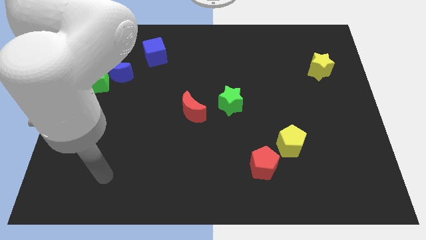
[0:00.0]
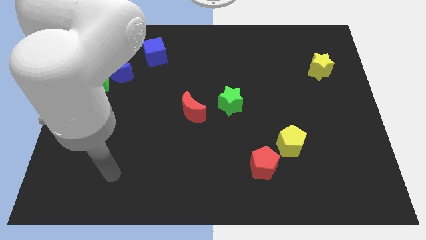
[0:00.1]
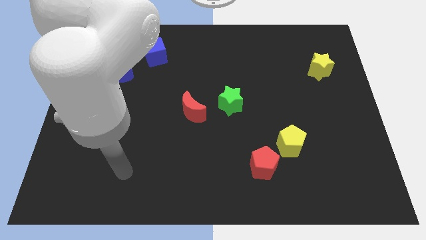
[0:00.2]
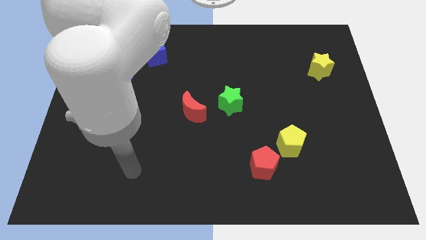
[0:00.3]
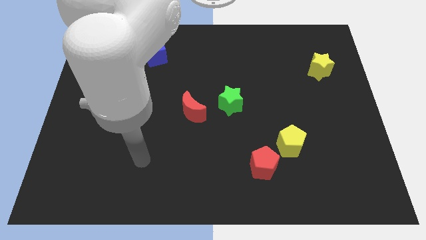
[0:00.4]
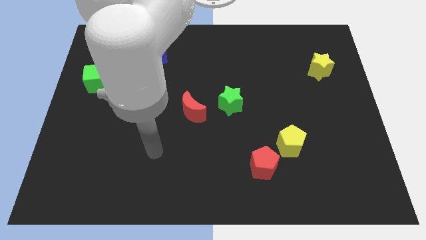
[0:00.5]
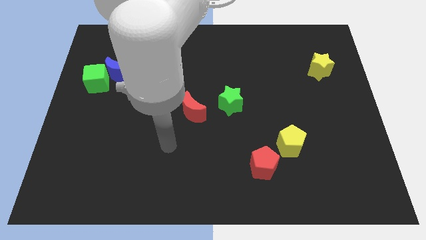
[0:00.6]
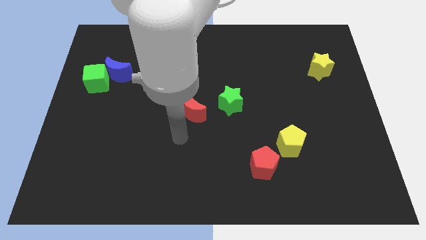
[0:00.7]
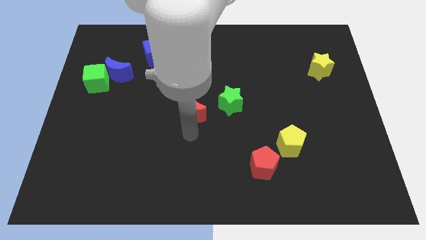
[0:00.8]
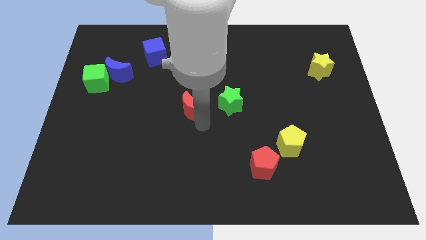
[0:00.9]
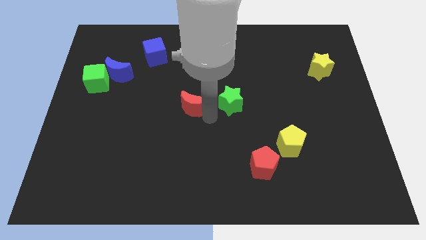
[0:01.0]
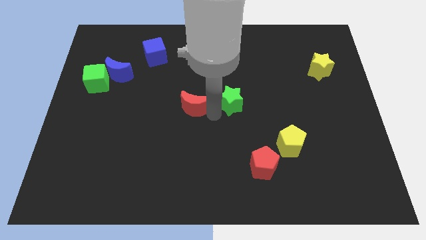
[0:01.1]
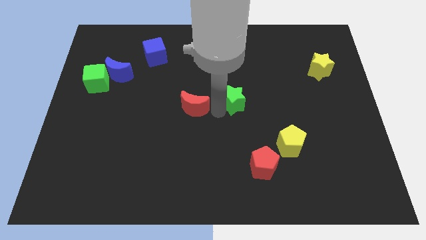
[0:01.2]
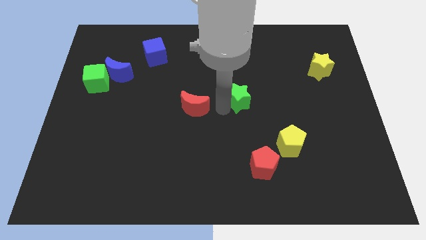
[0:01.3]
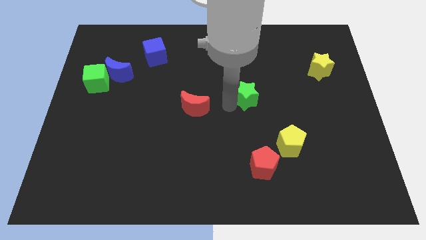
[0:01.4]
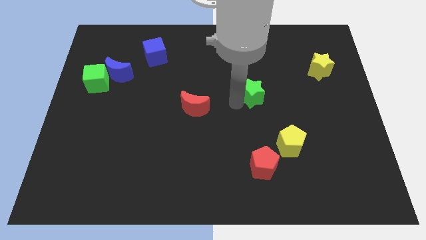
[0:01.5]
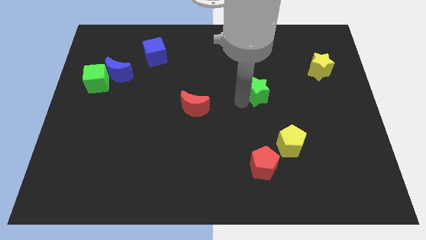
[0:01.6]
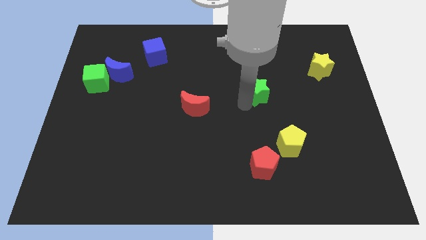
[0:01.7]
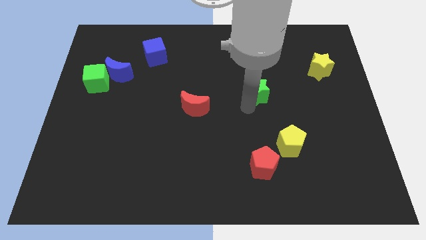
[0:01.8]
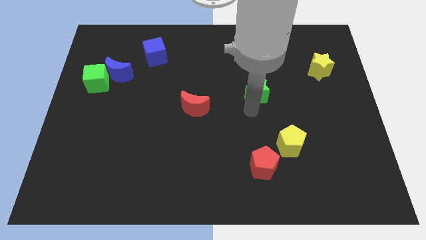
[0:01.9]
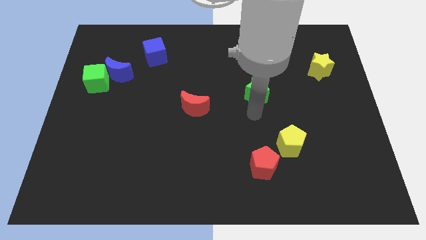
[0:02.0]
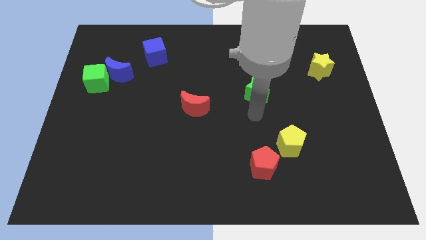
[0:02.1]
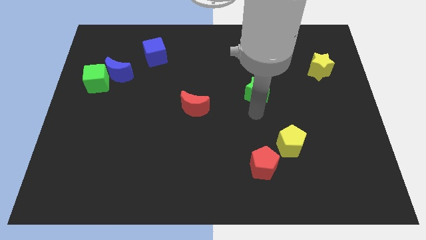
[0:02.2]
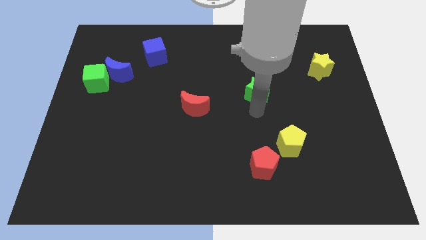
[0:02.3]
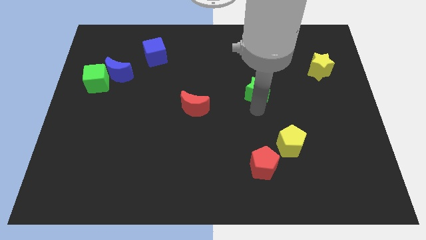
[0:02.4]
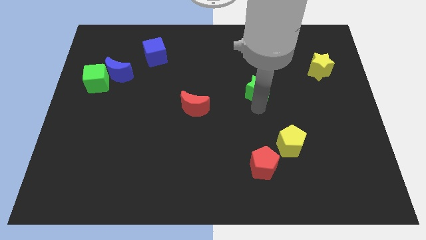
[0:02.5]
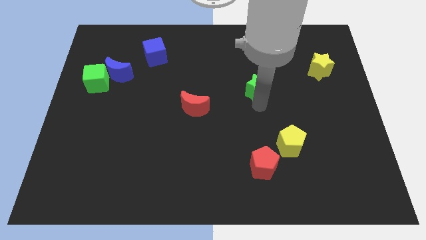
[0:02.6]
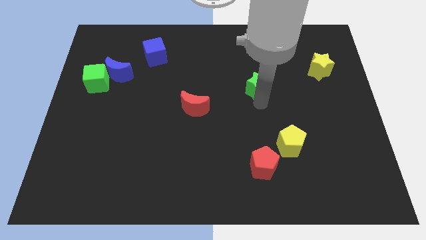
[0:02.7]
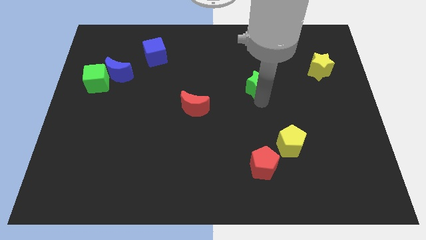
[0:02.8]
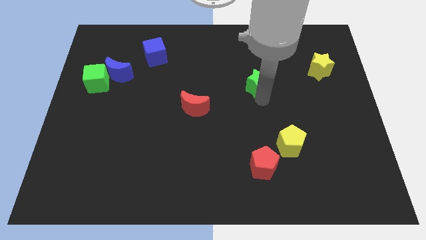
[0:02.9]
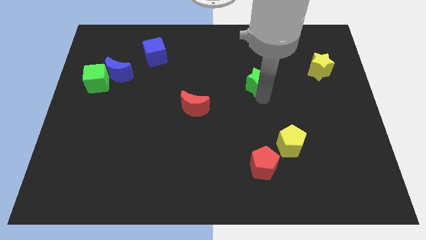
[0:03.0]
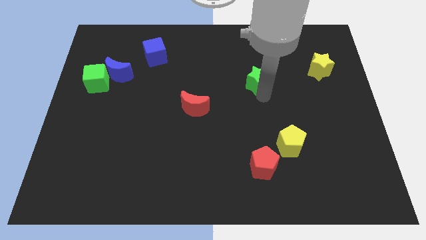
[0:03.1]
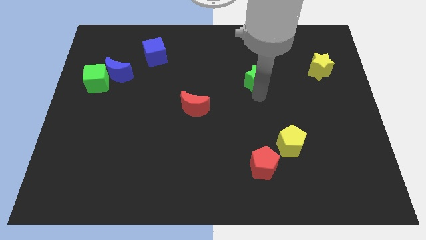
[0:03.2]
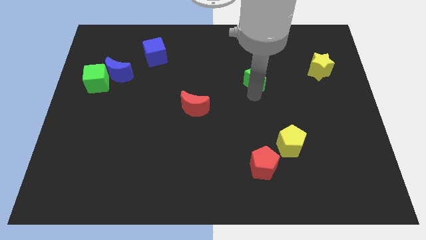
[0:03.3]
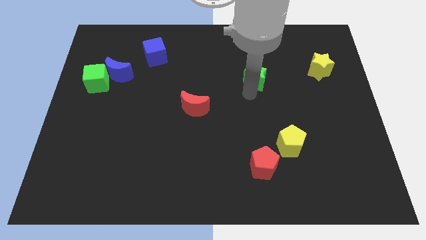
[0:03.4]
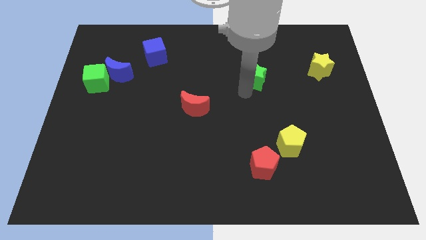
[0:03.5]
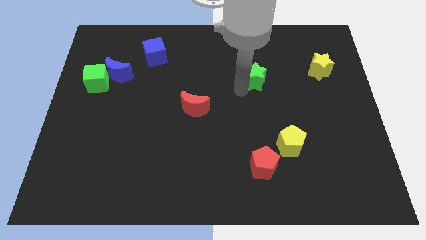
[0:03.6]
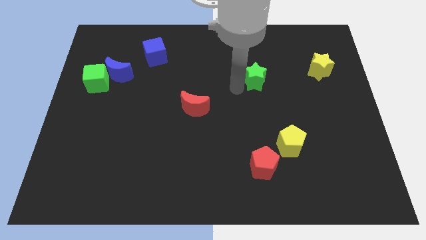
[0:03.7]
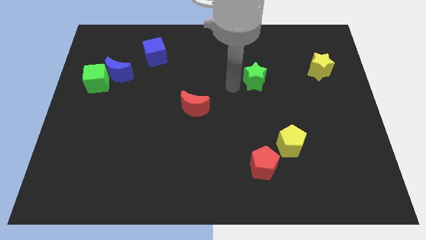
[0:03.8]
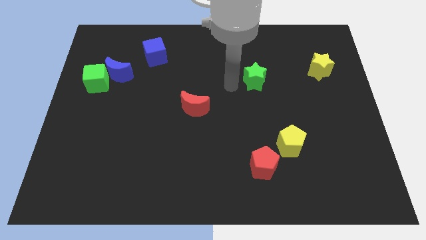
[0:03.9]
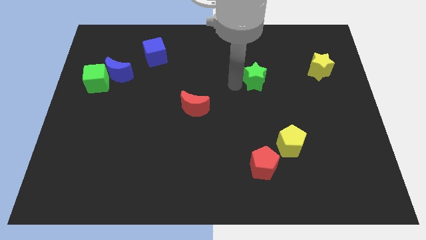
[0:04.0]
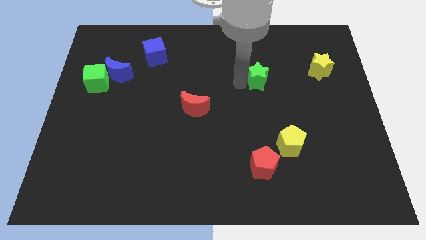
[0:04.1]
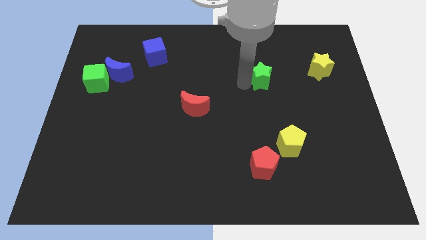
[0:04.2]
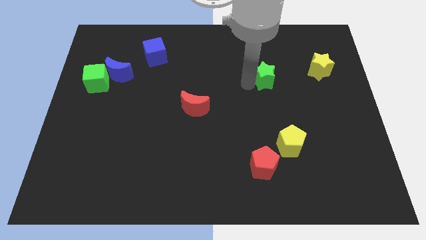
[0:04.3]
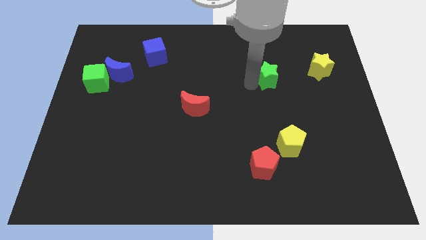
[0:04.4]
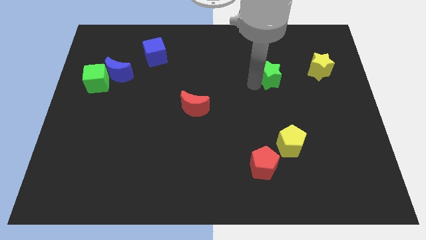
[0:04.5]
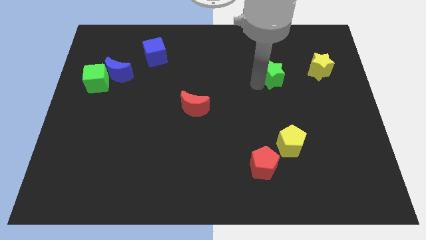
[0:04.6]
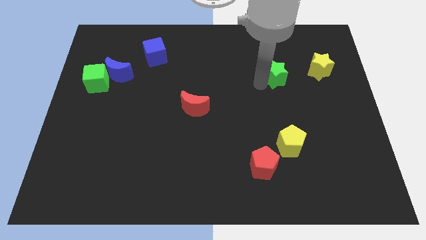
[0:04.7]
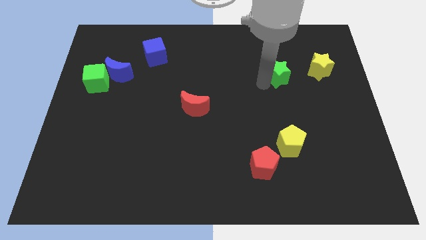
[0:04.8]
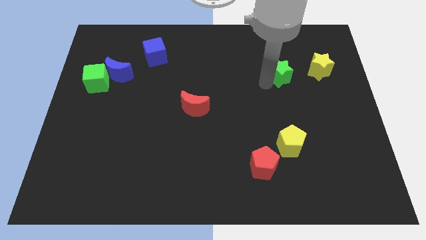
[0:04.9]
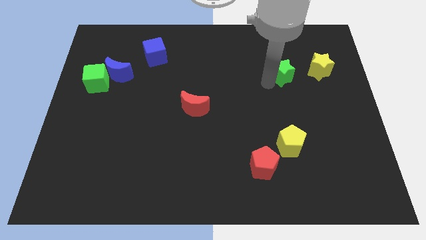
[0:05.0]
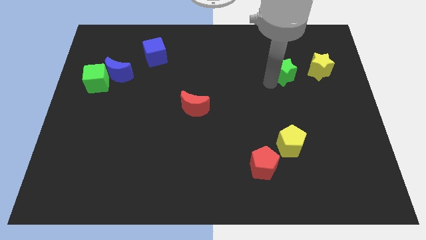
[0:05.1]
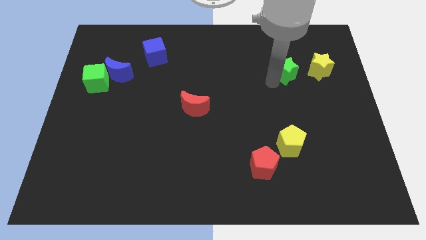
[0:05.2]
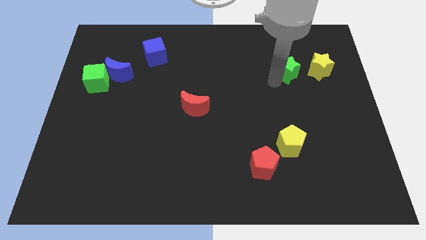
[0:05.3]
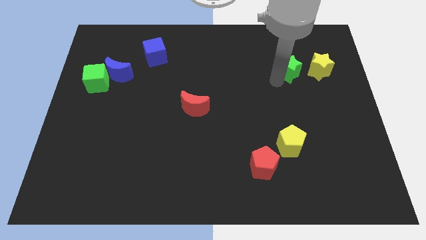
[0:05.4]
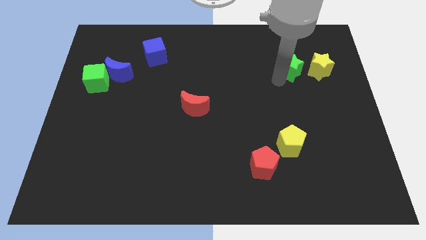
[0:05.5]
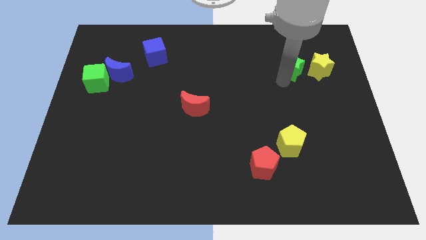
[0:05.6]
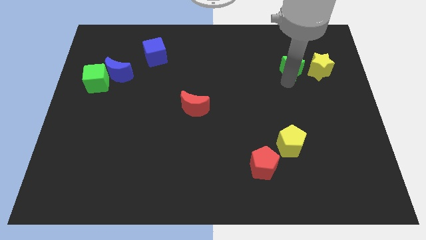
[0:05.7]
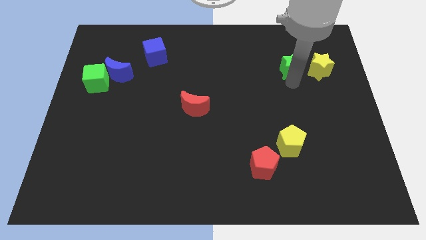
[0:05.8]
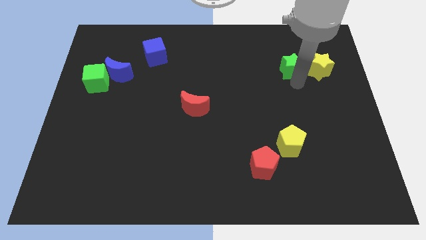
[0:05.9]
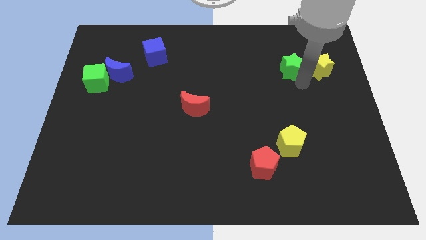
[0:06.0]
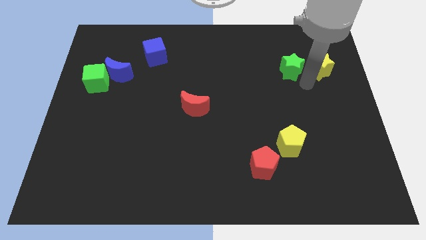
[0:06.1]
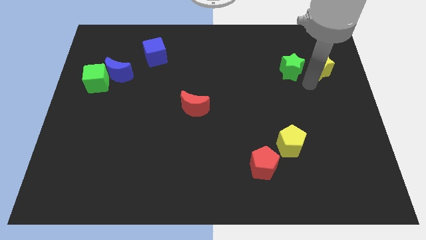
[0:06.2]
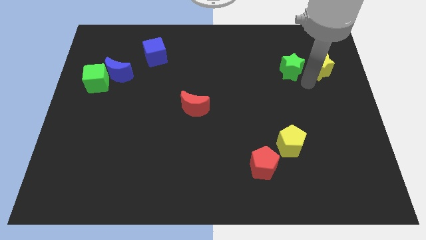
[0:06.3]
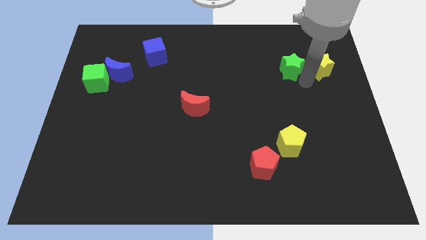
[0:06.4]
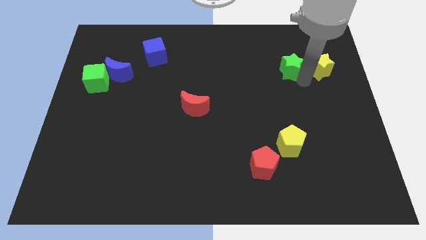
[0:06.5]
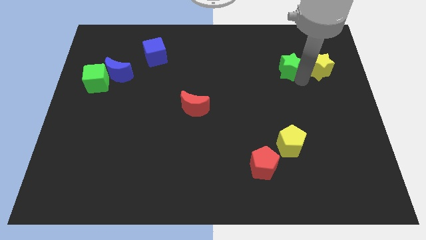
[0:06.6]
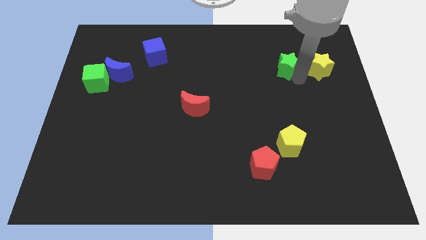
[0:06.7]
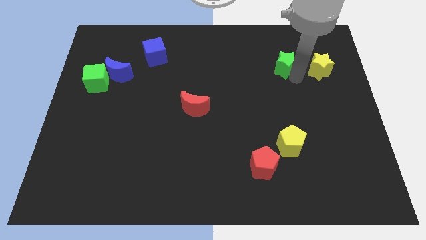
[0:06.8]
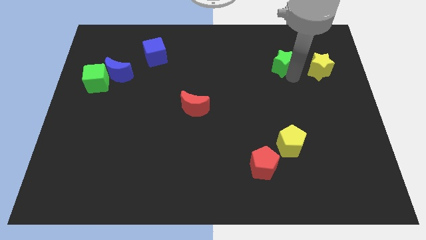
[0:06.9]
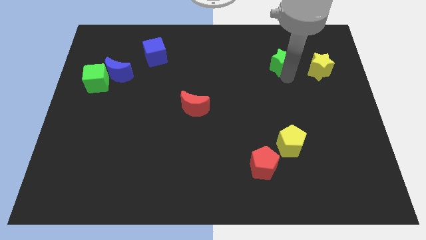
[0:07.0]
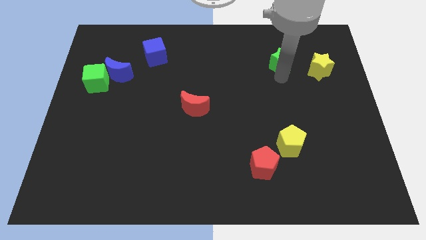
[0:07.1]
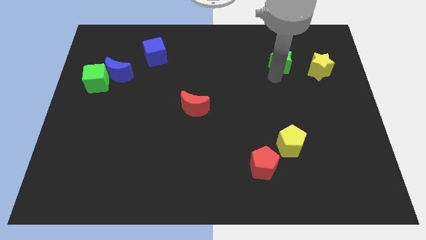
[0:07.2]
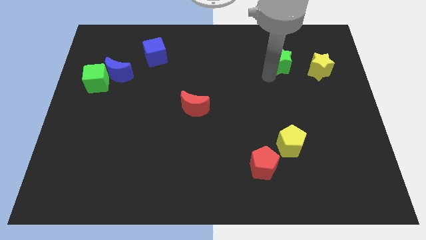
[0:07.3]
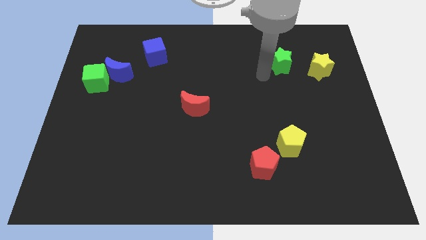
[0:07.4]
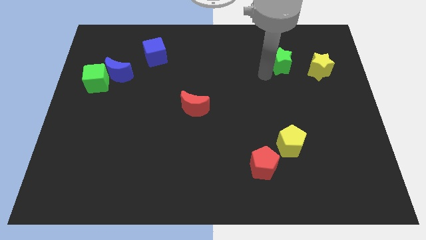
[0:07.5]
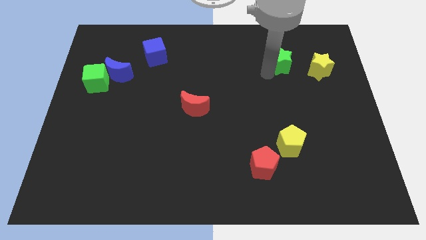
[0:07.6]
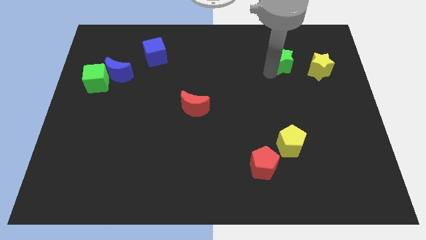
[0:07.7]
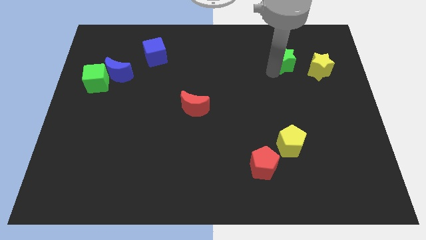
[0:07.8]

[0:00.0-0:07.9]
slide the green star diagonally up and to the left of the yellow star
